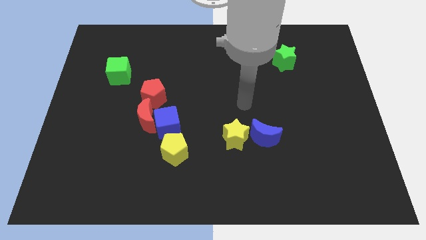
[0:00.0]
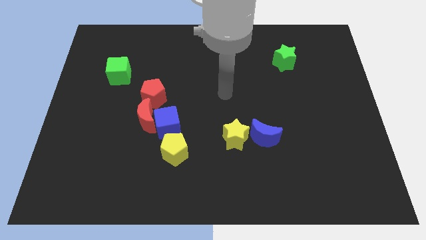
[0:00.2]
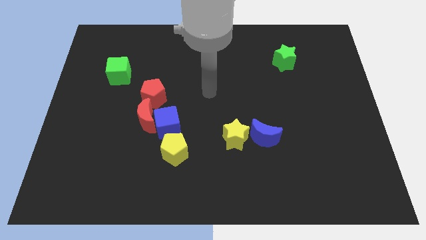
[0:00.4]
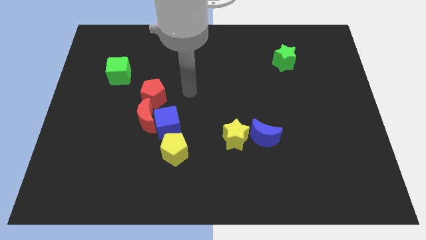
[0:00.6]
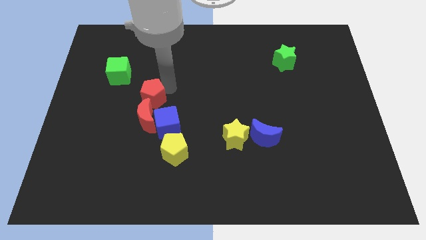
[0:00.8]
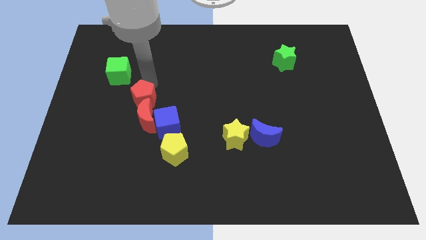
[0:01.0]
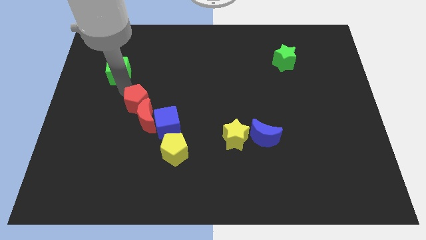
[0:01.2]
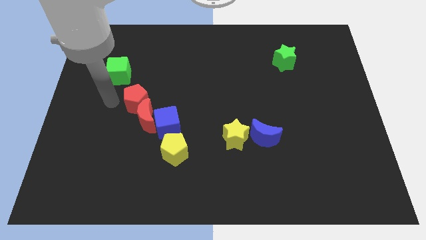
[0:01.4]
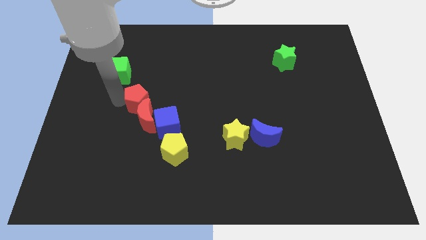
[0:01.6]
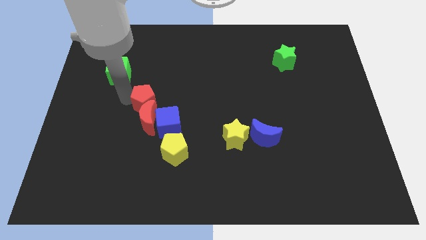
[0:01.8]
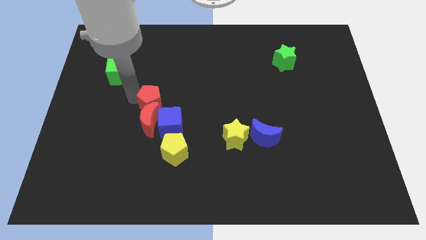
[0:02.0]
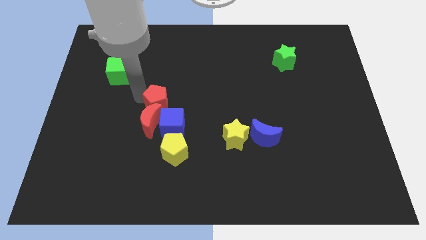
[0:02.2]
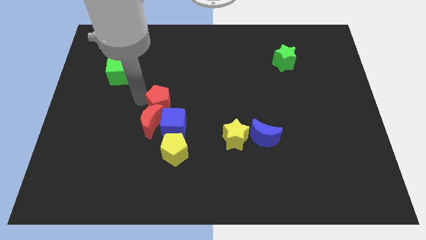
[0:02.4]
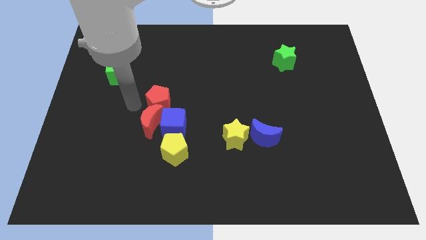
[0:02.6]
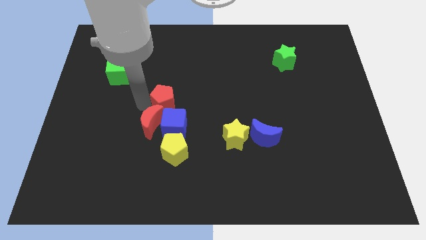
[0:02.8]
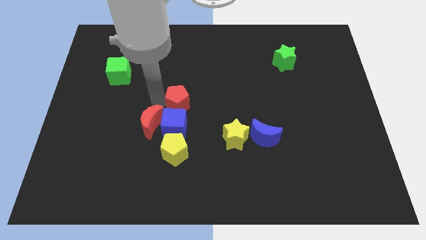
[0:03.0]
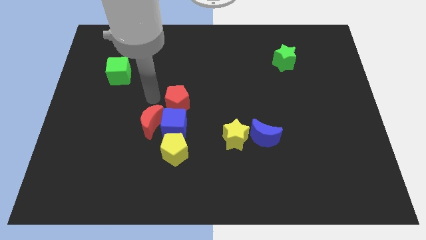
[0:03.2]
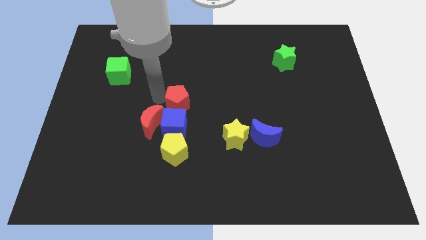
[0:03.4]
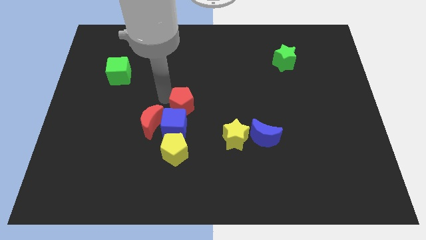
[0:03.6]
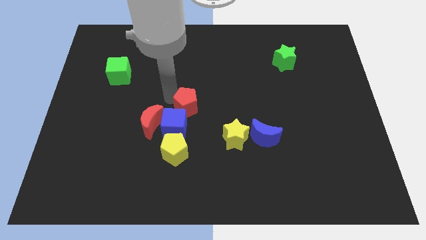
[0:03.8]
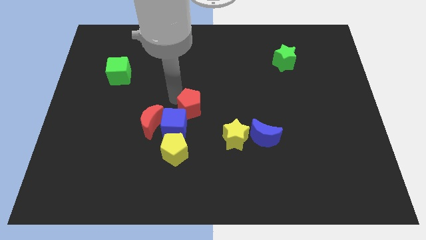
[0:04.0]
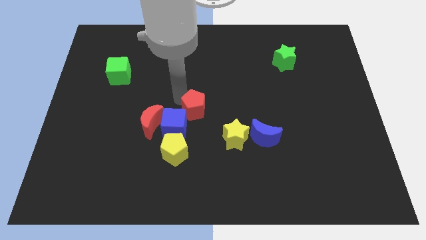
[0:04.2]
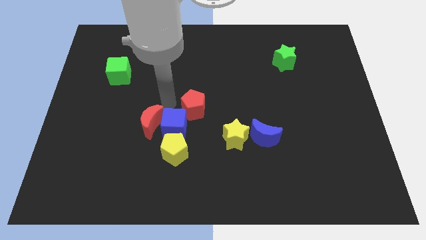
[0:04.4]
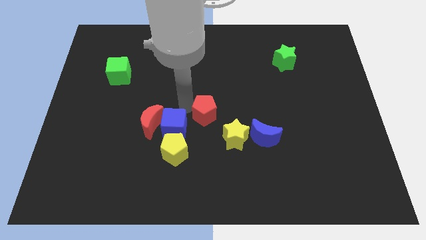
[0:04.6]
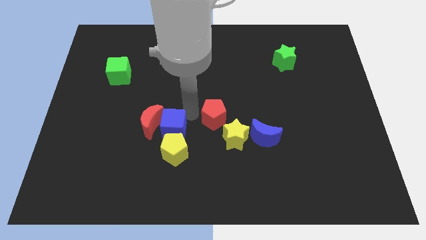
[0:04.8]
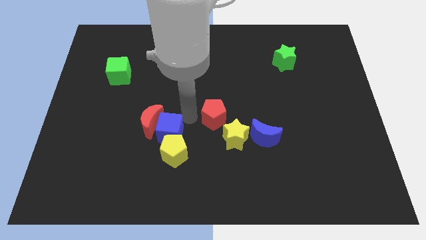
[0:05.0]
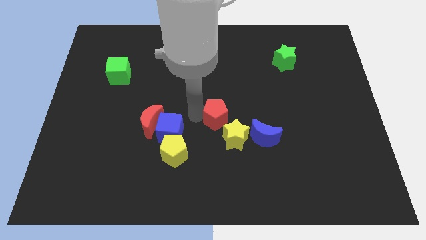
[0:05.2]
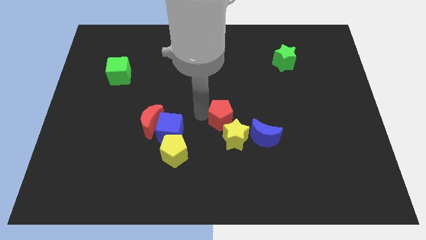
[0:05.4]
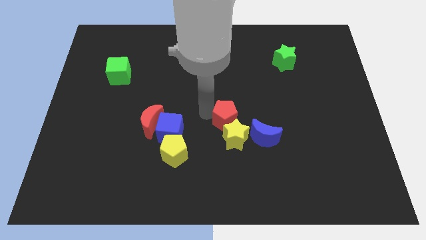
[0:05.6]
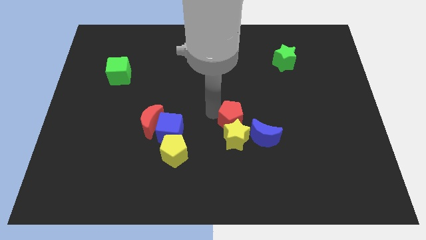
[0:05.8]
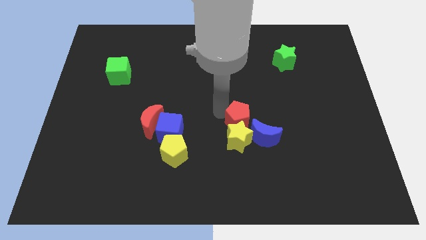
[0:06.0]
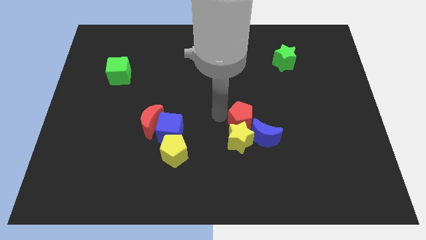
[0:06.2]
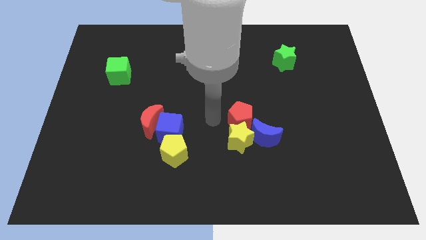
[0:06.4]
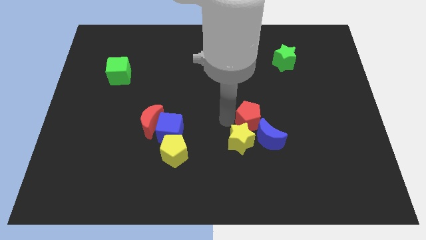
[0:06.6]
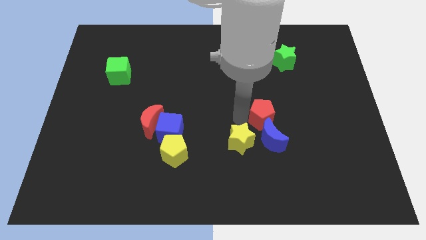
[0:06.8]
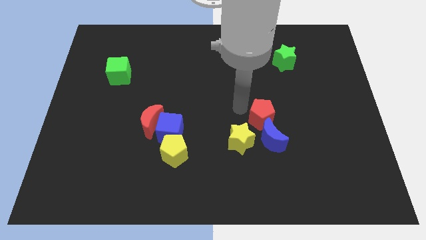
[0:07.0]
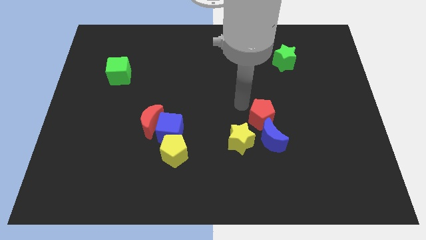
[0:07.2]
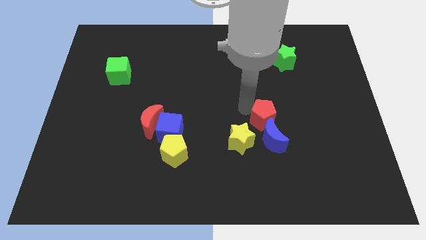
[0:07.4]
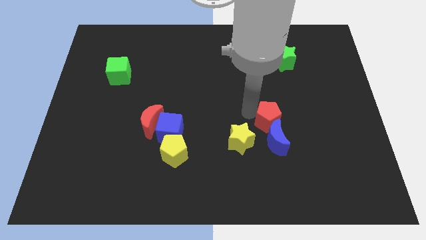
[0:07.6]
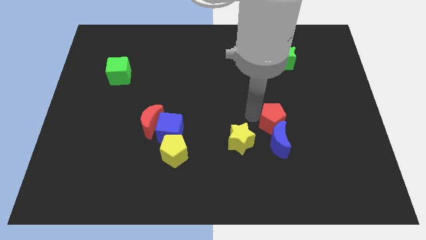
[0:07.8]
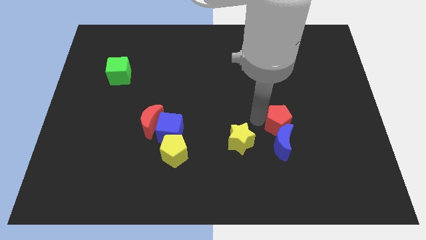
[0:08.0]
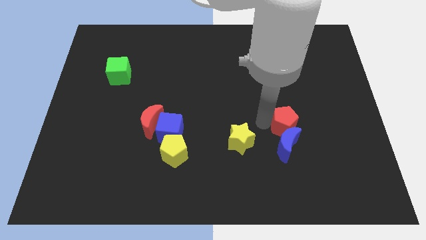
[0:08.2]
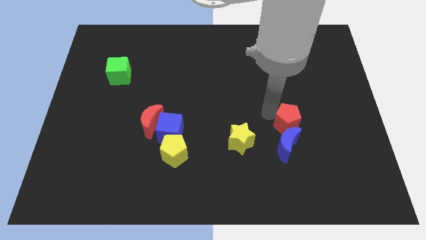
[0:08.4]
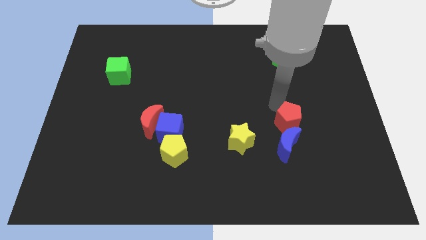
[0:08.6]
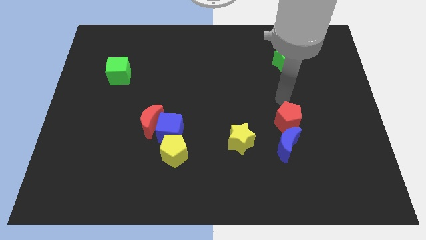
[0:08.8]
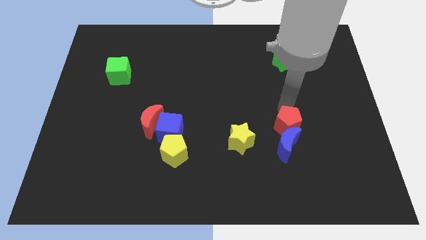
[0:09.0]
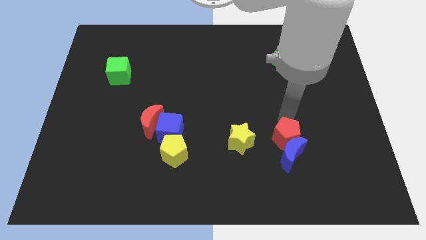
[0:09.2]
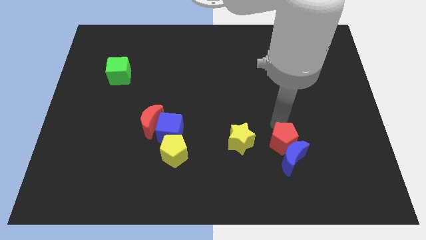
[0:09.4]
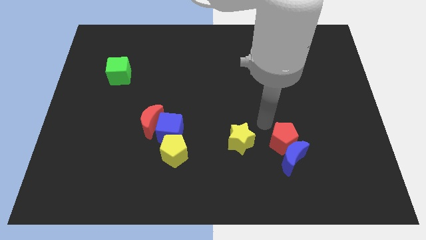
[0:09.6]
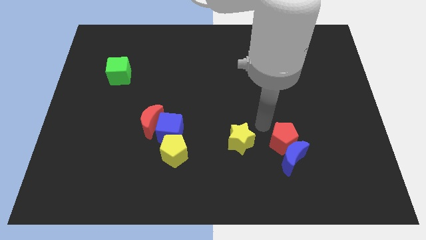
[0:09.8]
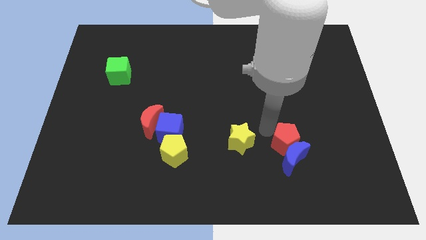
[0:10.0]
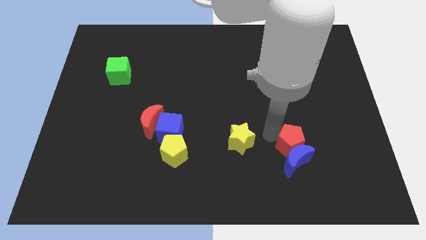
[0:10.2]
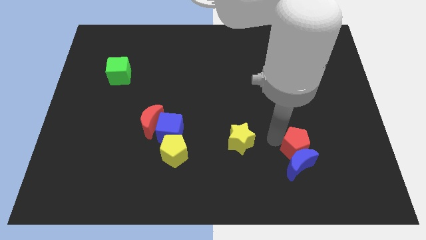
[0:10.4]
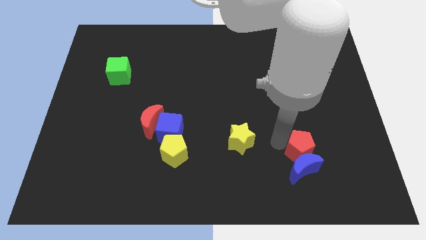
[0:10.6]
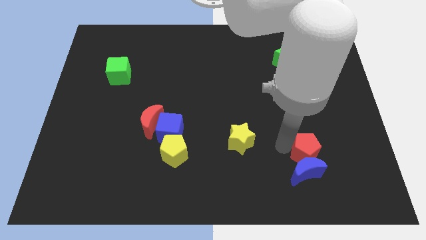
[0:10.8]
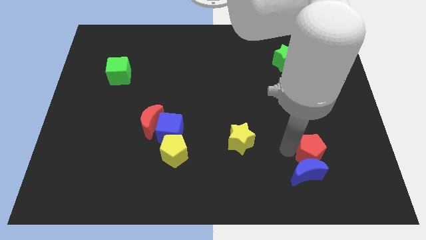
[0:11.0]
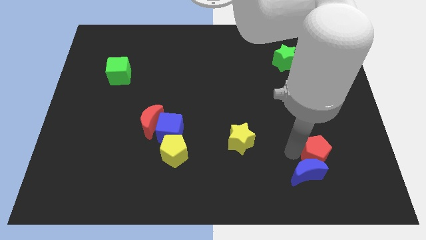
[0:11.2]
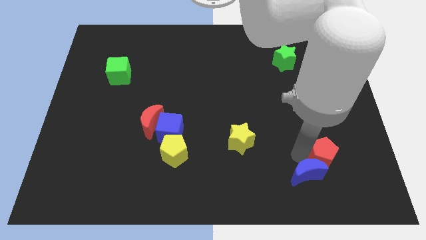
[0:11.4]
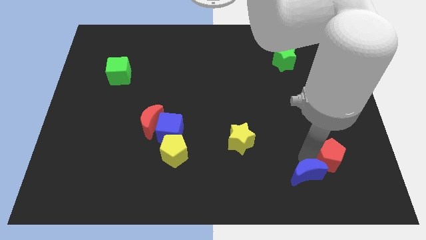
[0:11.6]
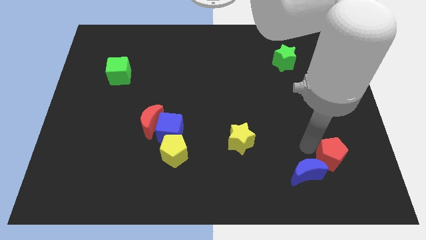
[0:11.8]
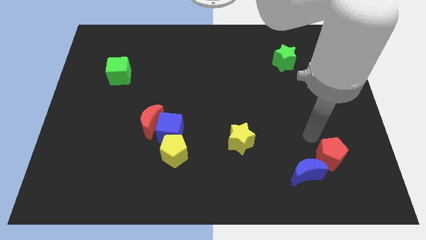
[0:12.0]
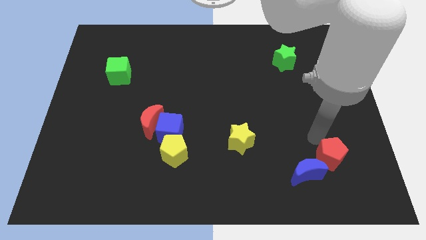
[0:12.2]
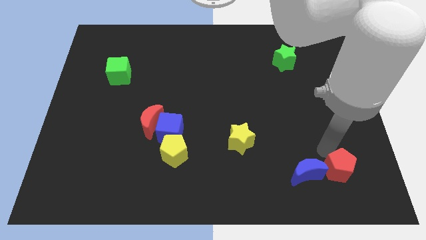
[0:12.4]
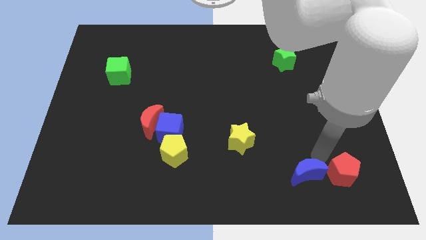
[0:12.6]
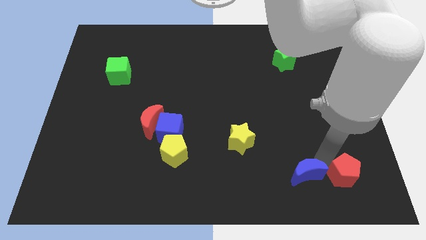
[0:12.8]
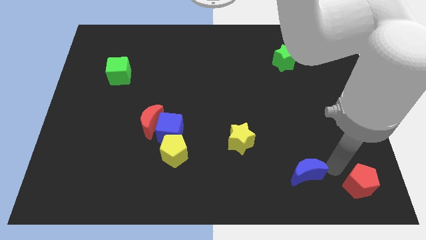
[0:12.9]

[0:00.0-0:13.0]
push the red pentagon to the lower right corner
